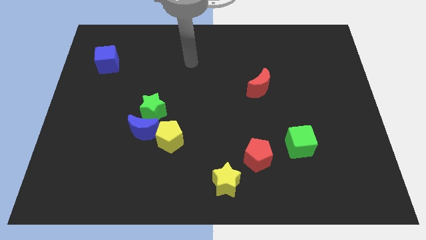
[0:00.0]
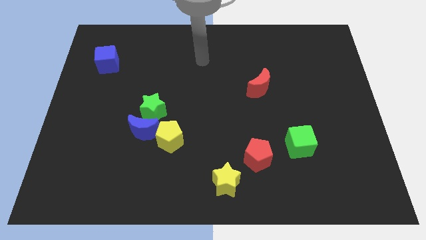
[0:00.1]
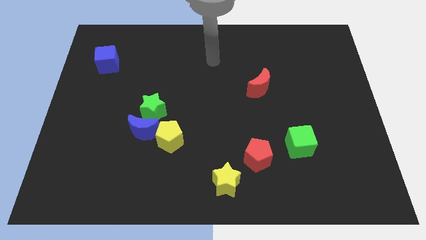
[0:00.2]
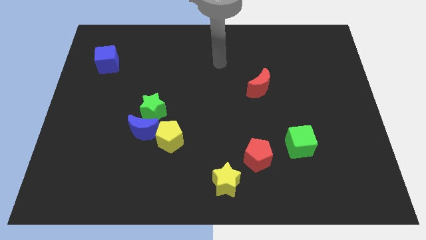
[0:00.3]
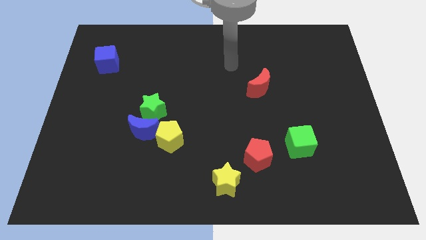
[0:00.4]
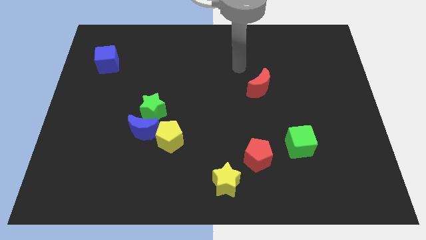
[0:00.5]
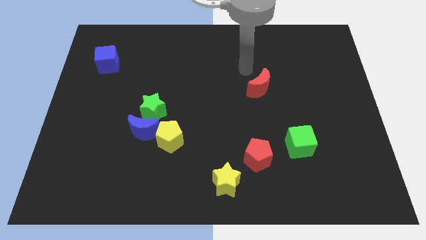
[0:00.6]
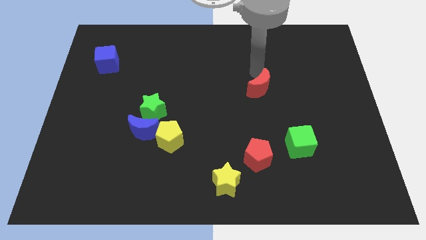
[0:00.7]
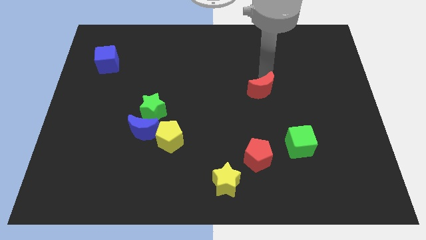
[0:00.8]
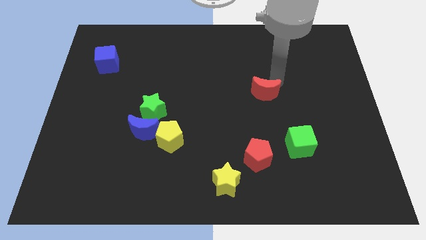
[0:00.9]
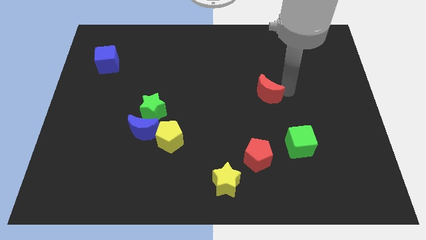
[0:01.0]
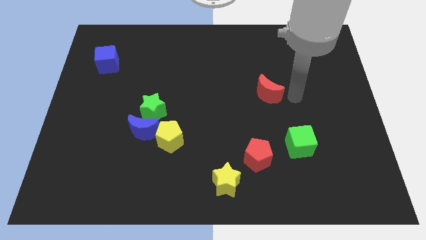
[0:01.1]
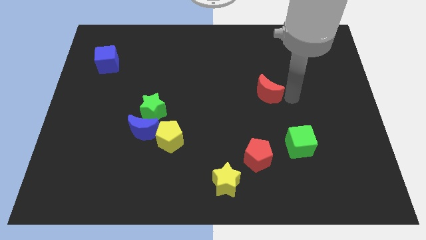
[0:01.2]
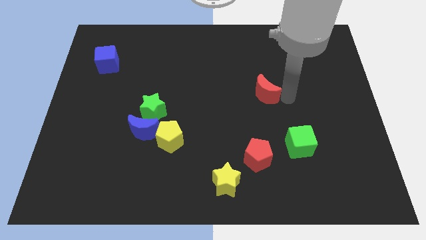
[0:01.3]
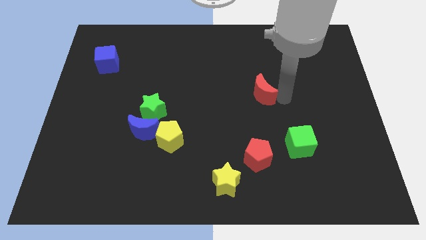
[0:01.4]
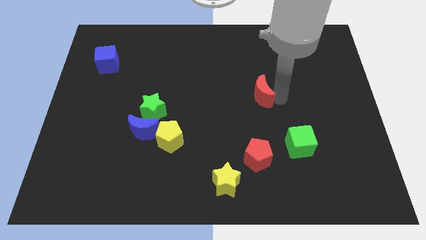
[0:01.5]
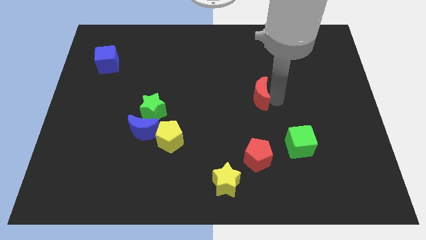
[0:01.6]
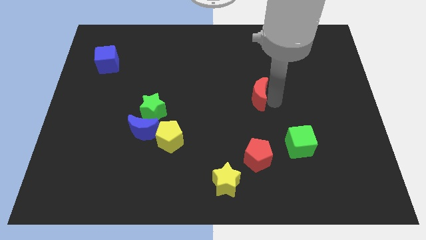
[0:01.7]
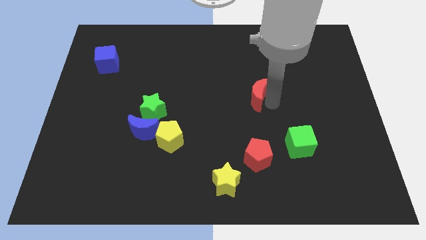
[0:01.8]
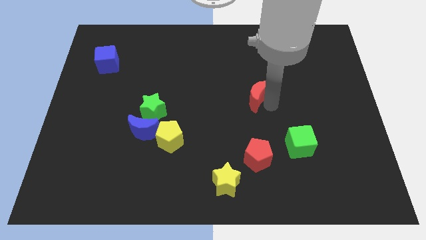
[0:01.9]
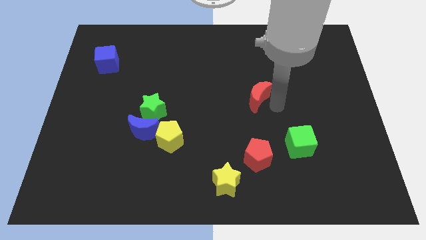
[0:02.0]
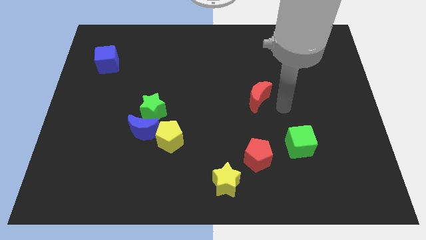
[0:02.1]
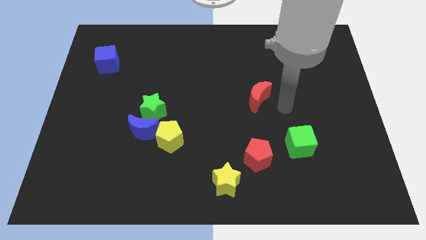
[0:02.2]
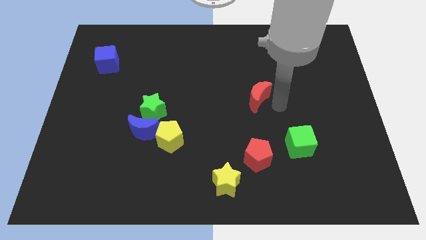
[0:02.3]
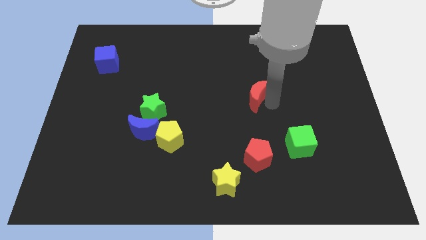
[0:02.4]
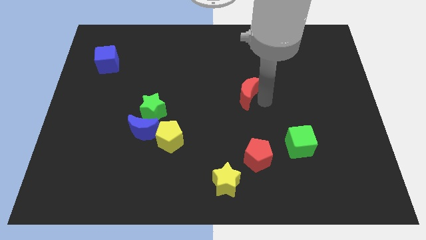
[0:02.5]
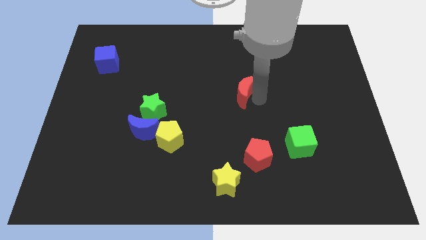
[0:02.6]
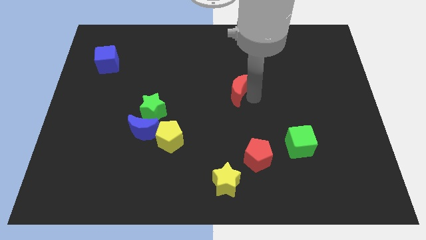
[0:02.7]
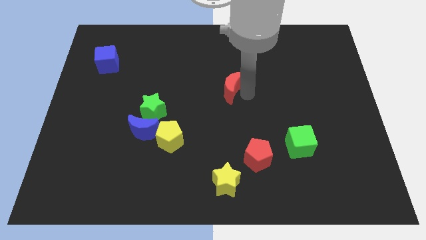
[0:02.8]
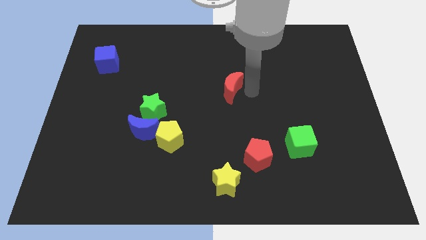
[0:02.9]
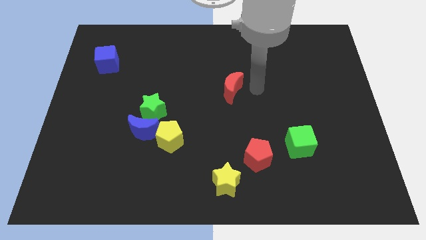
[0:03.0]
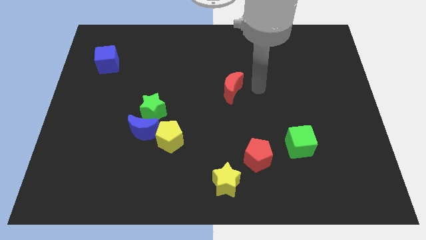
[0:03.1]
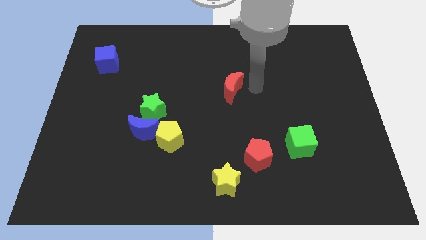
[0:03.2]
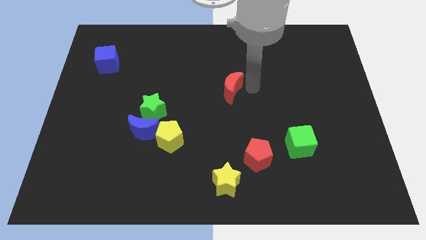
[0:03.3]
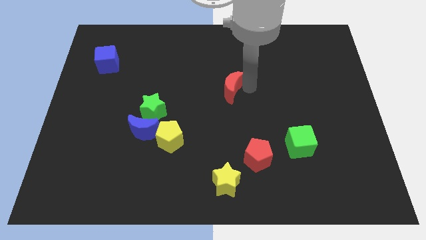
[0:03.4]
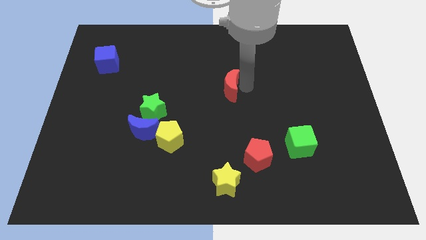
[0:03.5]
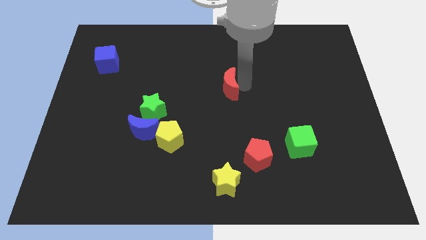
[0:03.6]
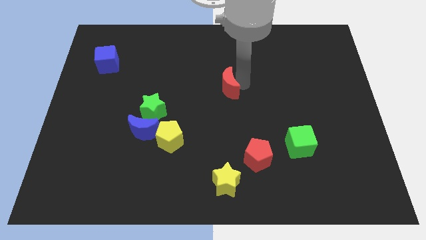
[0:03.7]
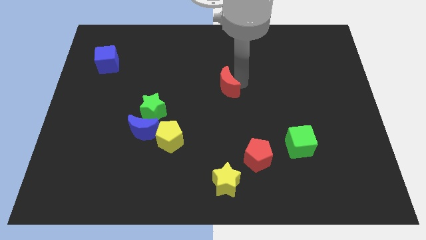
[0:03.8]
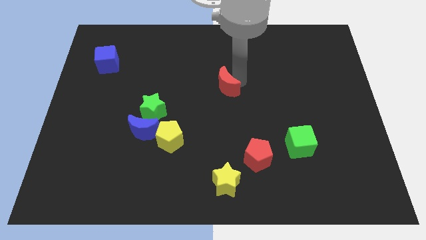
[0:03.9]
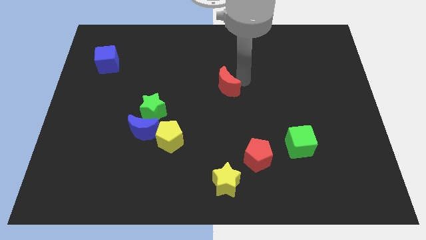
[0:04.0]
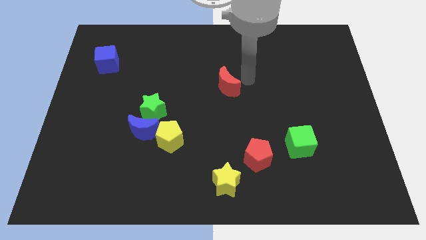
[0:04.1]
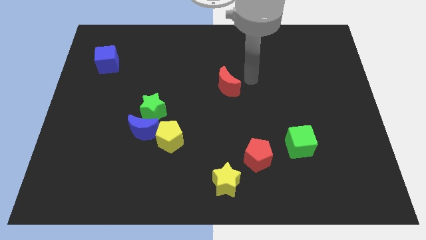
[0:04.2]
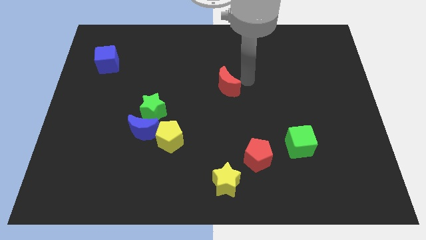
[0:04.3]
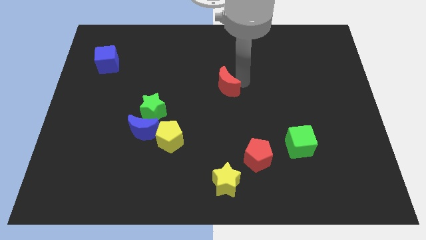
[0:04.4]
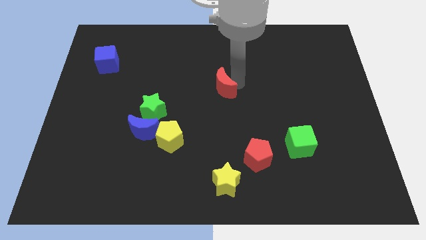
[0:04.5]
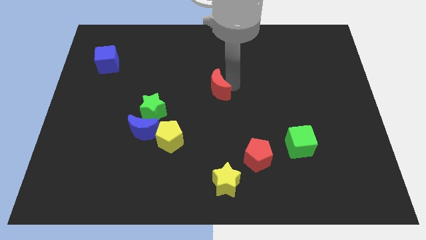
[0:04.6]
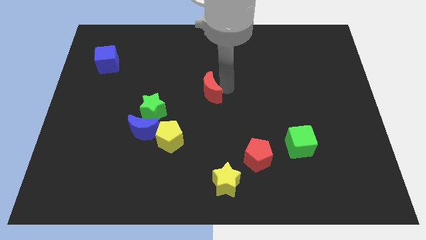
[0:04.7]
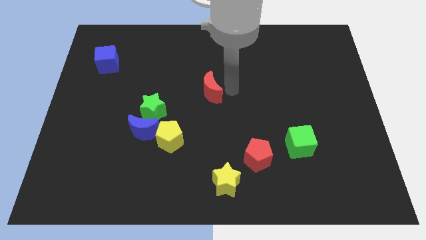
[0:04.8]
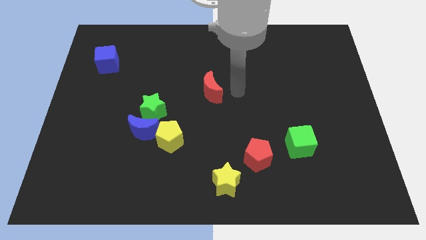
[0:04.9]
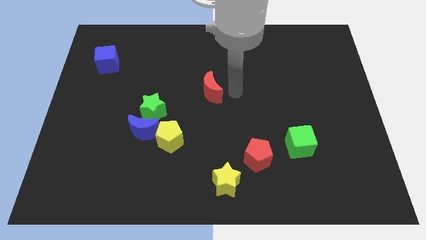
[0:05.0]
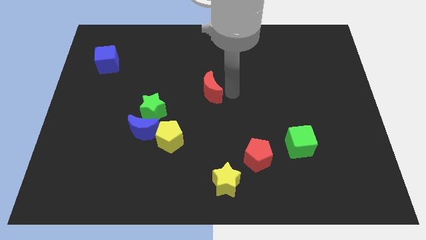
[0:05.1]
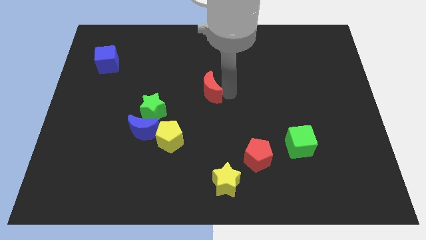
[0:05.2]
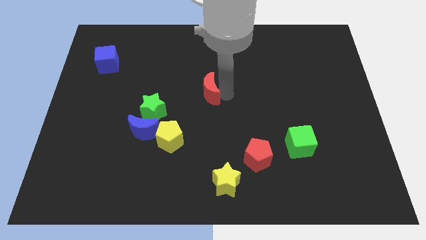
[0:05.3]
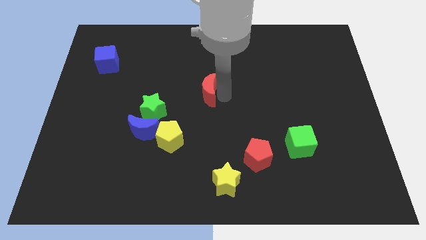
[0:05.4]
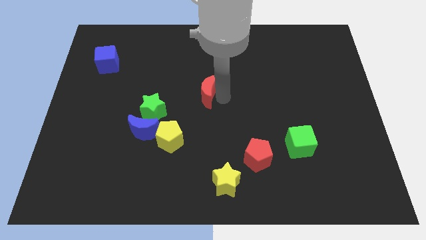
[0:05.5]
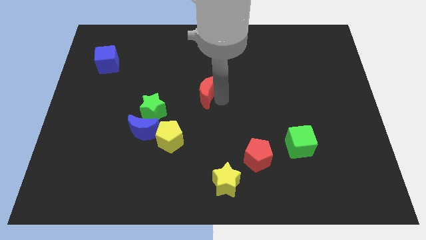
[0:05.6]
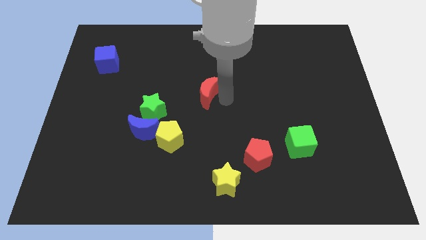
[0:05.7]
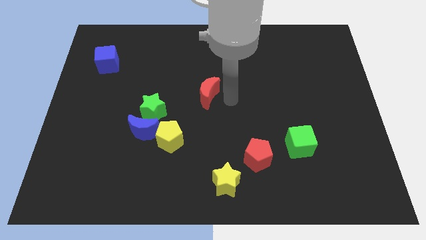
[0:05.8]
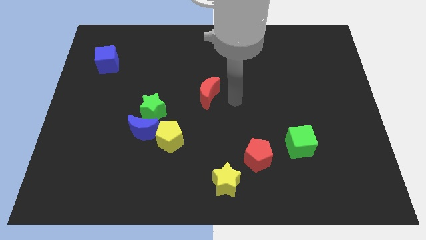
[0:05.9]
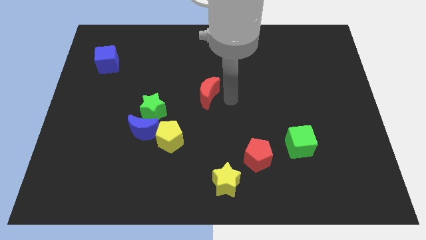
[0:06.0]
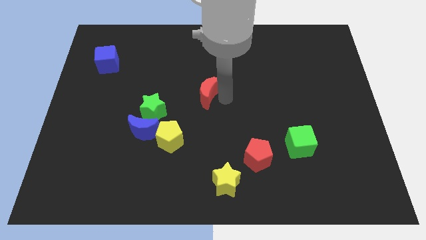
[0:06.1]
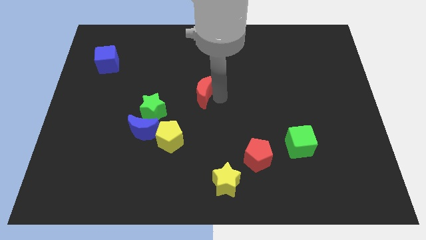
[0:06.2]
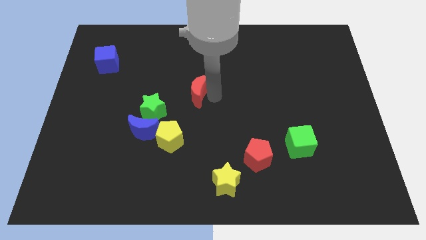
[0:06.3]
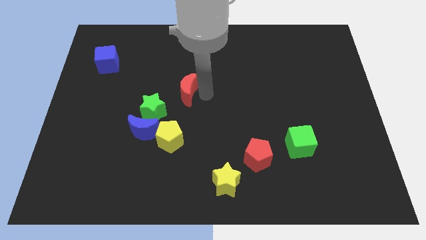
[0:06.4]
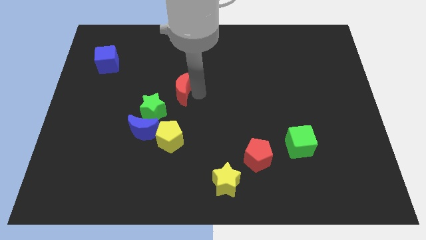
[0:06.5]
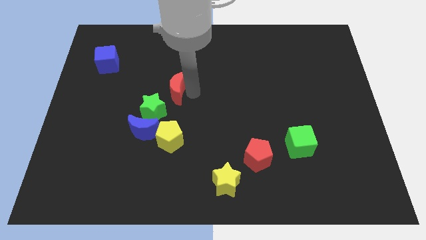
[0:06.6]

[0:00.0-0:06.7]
slide the red moon to the left

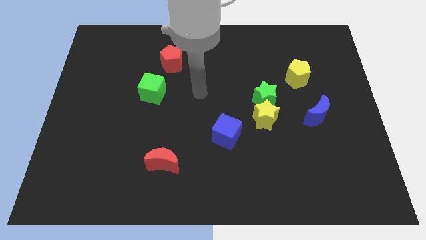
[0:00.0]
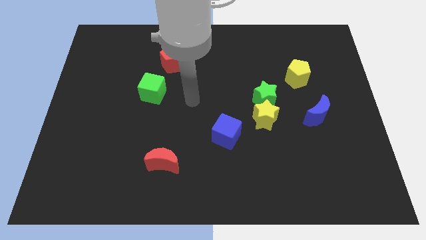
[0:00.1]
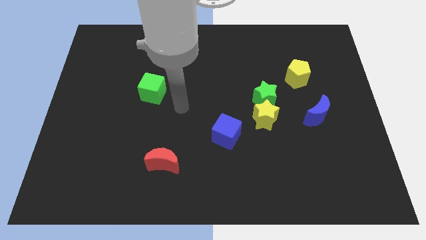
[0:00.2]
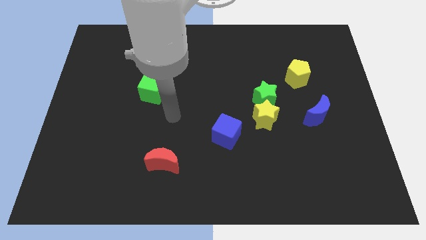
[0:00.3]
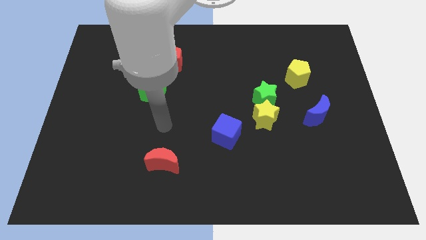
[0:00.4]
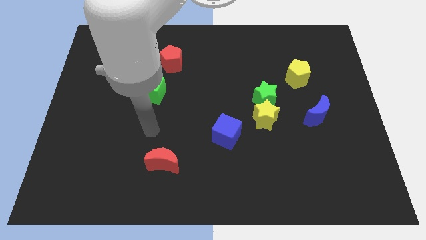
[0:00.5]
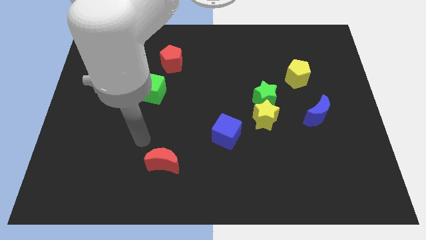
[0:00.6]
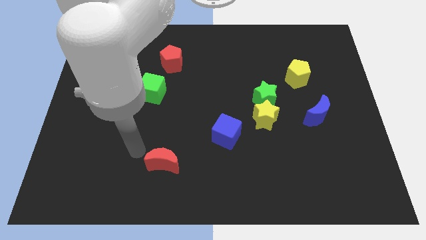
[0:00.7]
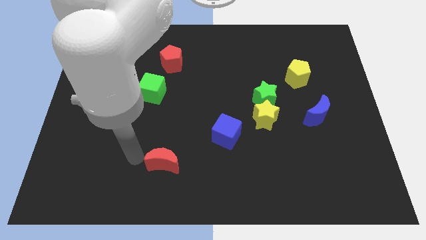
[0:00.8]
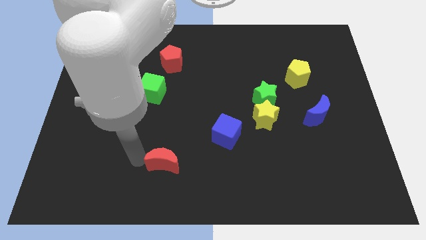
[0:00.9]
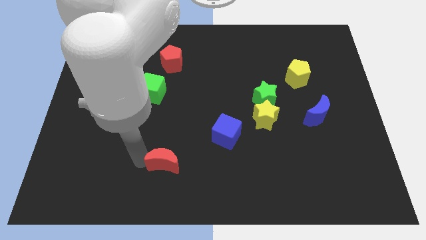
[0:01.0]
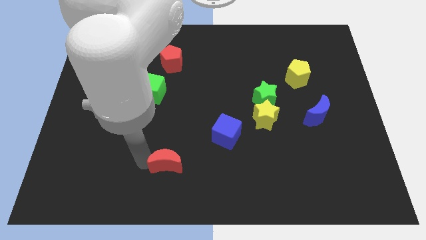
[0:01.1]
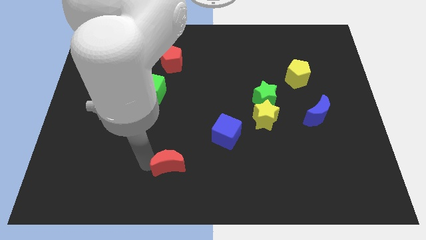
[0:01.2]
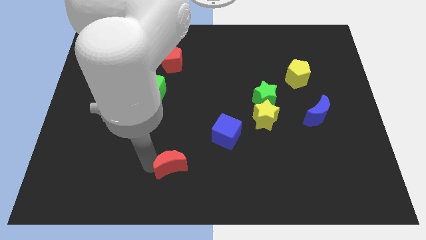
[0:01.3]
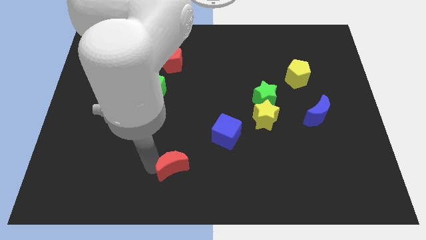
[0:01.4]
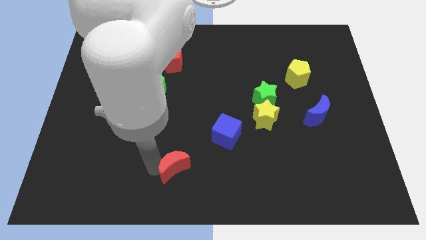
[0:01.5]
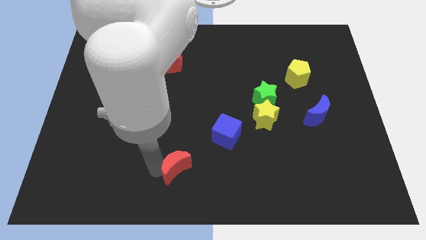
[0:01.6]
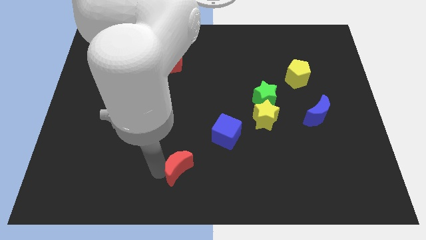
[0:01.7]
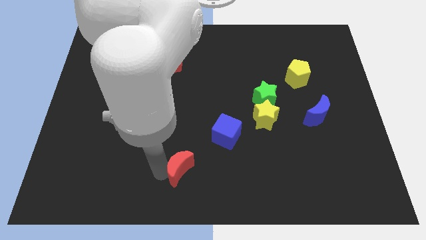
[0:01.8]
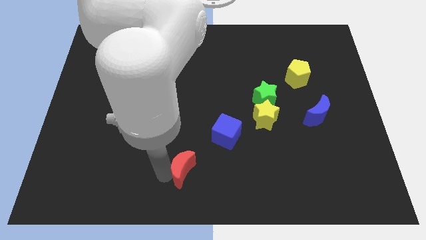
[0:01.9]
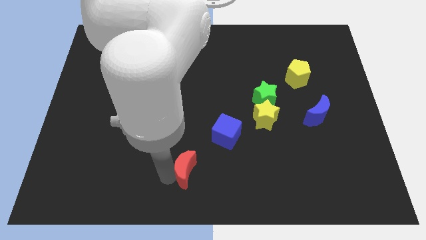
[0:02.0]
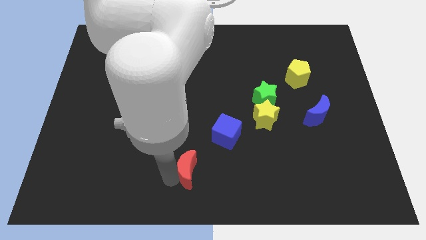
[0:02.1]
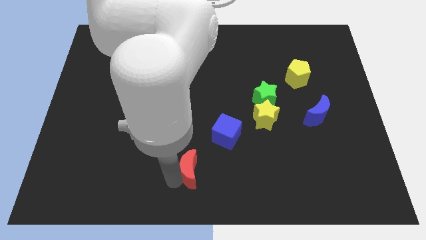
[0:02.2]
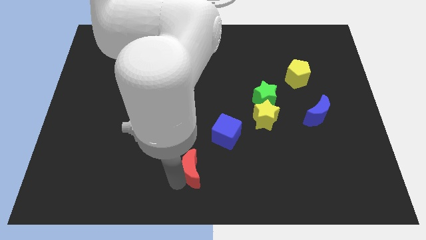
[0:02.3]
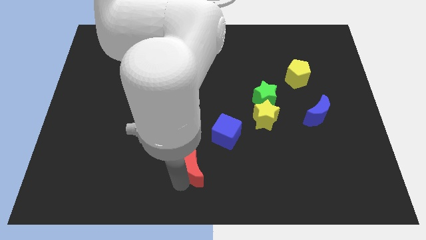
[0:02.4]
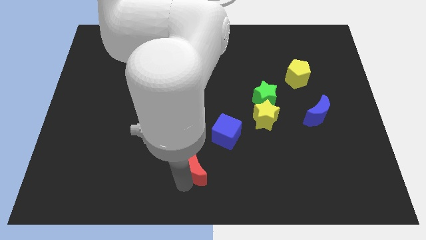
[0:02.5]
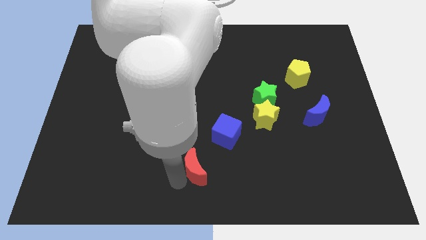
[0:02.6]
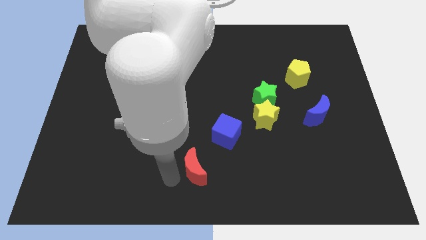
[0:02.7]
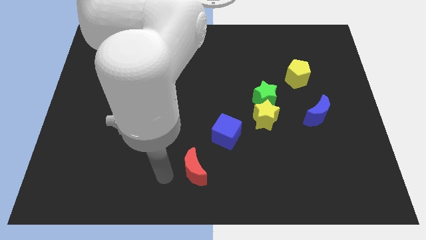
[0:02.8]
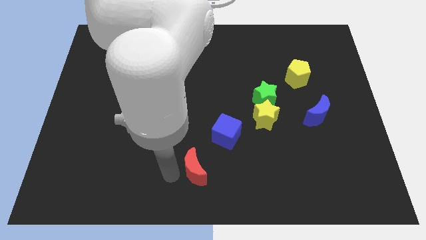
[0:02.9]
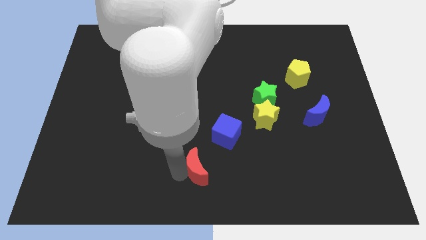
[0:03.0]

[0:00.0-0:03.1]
slightly push the red moon to the right
